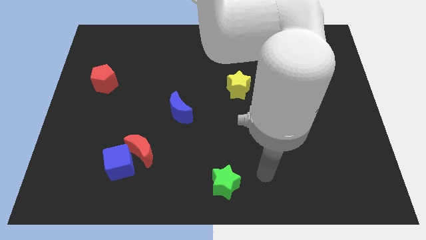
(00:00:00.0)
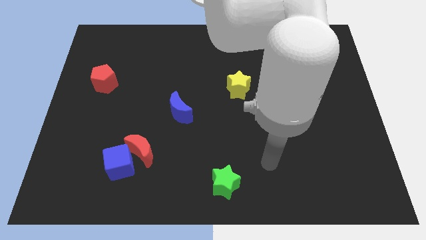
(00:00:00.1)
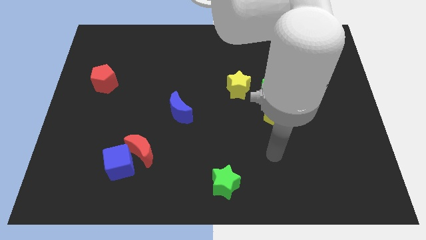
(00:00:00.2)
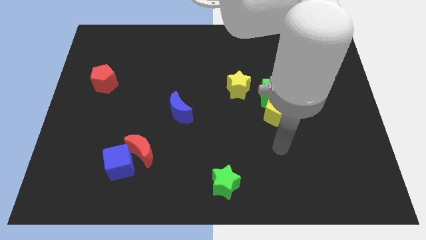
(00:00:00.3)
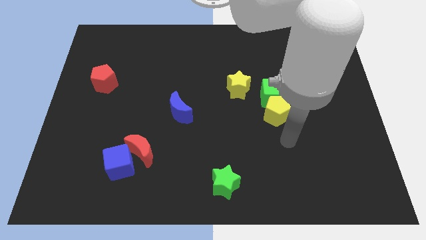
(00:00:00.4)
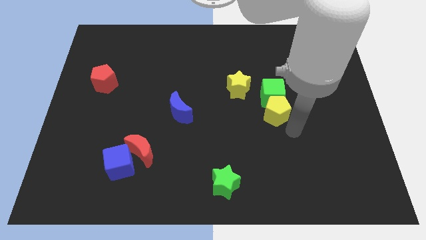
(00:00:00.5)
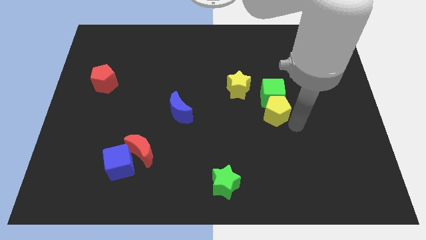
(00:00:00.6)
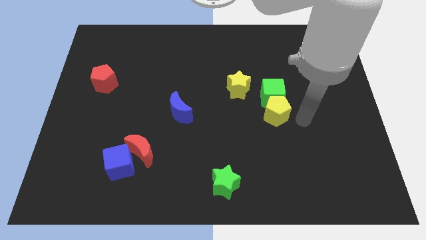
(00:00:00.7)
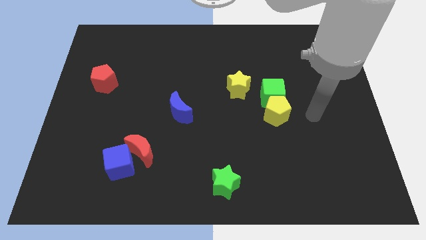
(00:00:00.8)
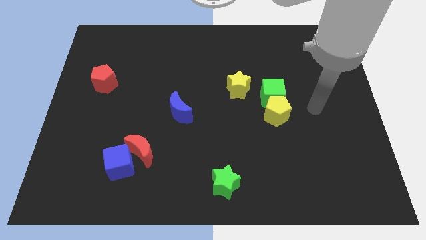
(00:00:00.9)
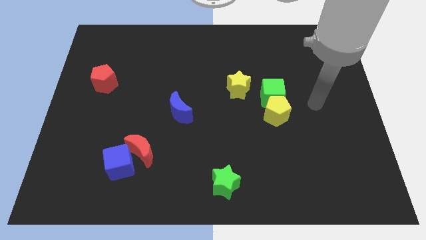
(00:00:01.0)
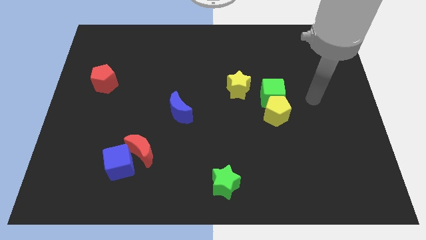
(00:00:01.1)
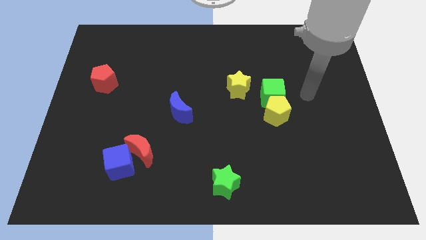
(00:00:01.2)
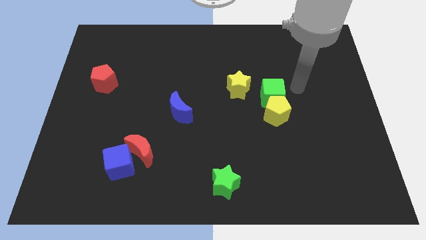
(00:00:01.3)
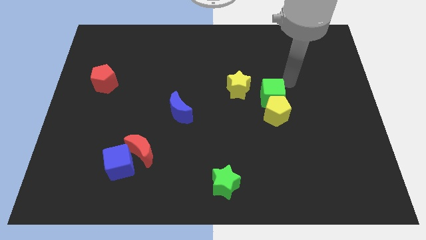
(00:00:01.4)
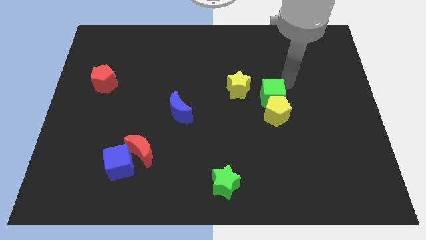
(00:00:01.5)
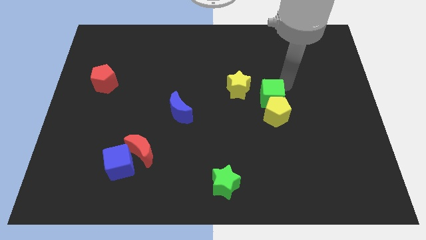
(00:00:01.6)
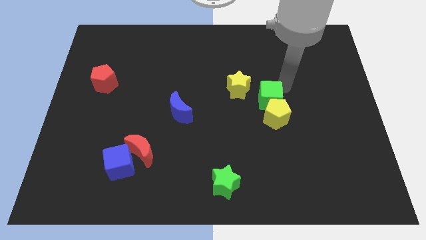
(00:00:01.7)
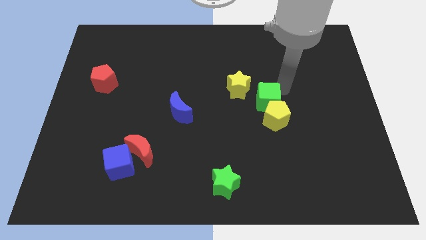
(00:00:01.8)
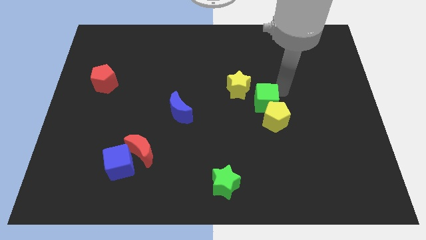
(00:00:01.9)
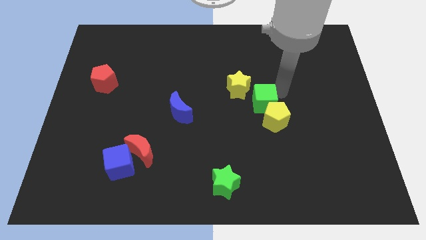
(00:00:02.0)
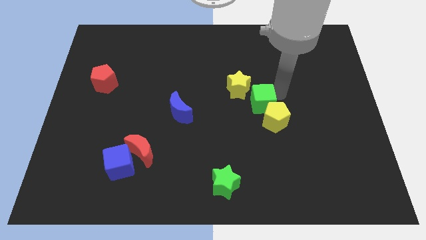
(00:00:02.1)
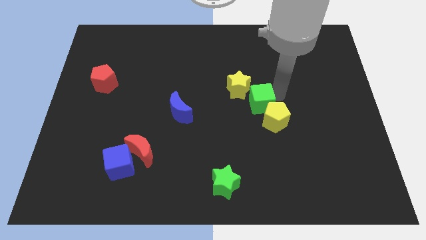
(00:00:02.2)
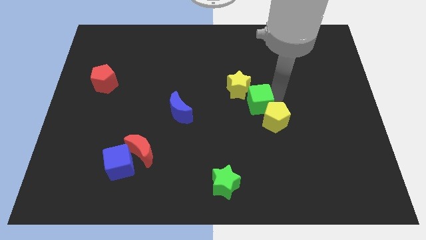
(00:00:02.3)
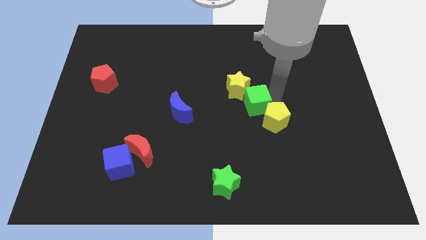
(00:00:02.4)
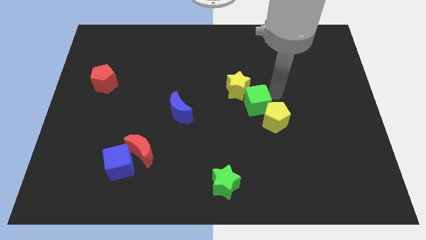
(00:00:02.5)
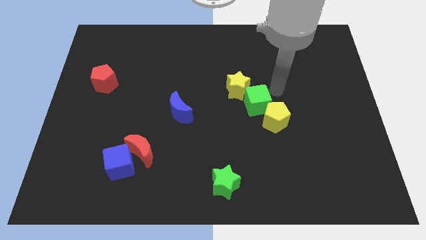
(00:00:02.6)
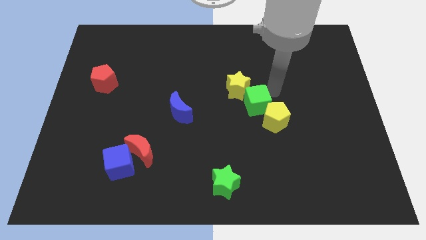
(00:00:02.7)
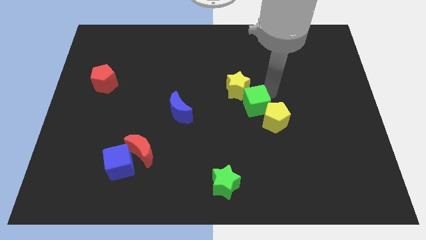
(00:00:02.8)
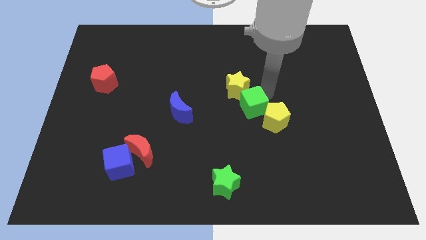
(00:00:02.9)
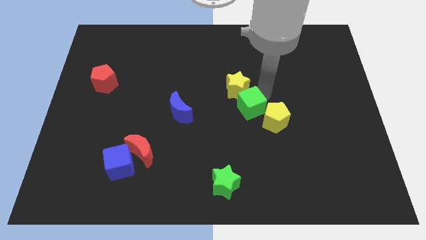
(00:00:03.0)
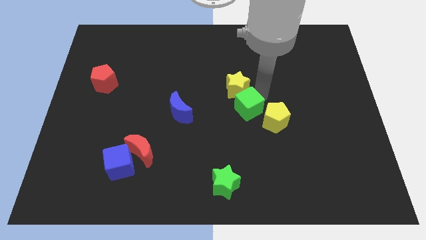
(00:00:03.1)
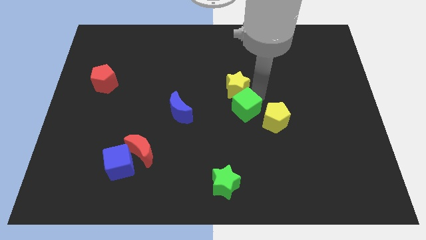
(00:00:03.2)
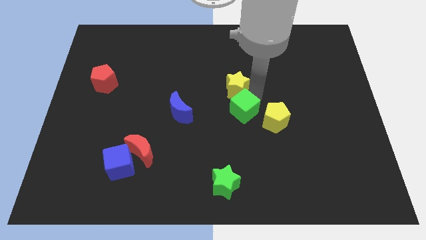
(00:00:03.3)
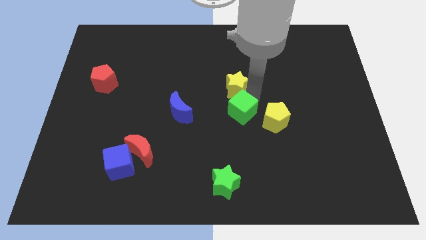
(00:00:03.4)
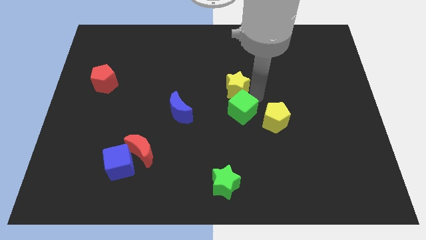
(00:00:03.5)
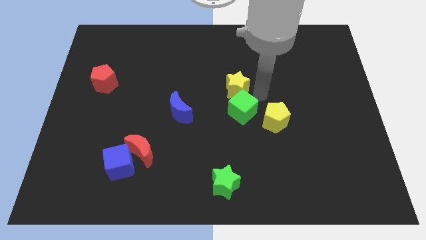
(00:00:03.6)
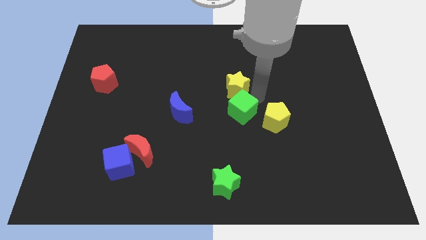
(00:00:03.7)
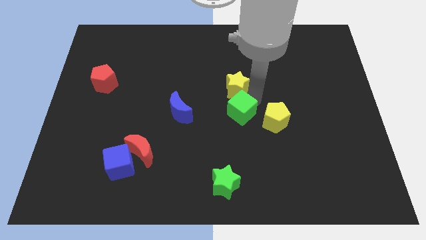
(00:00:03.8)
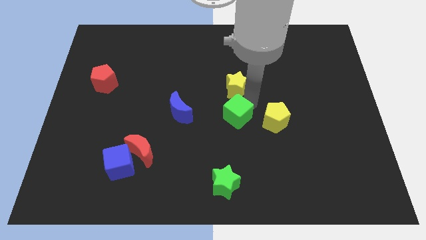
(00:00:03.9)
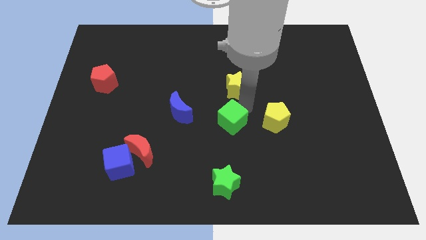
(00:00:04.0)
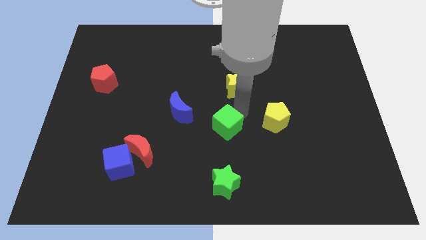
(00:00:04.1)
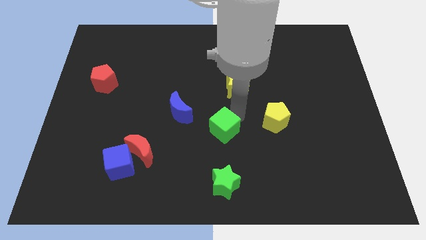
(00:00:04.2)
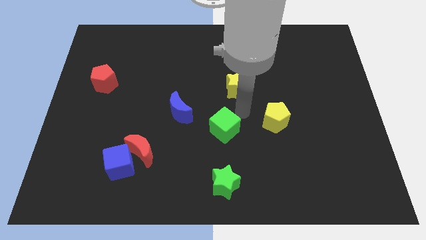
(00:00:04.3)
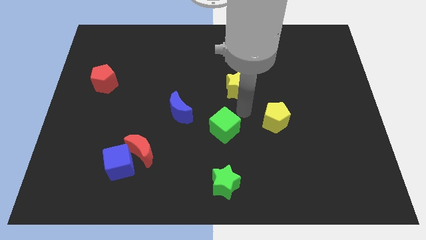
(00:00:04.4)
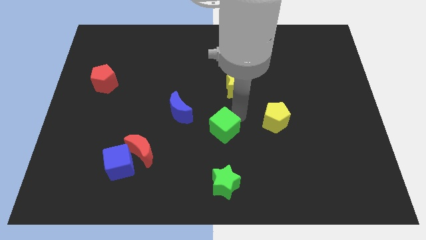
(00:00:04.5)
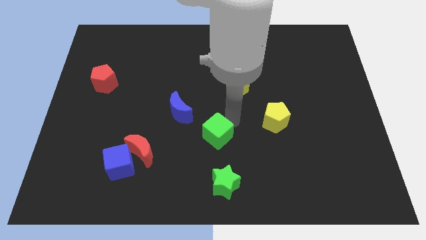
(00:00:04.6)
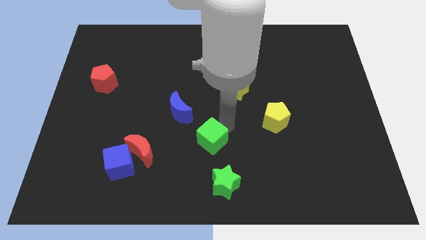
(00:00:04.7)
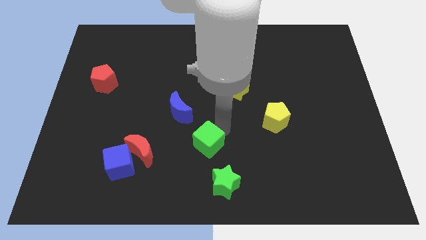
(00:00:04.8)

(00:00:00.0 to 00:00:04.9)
slide the green cube downwards and then to the left

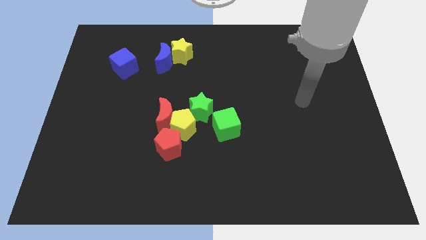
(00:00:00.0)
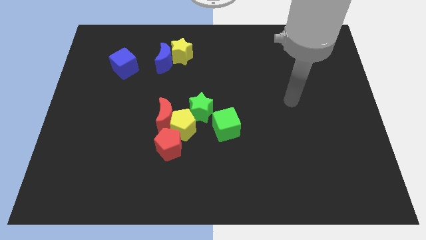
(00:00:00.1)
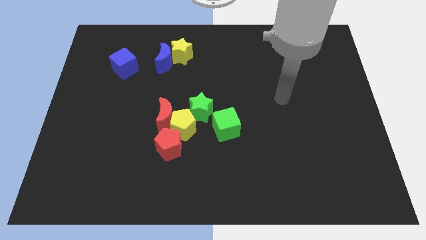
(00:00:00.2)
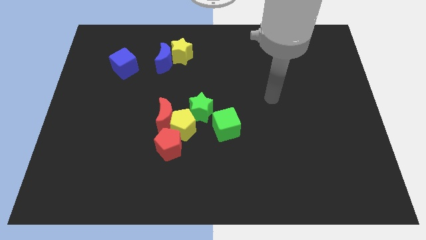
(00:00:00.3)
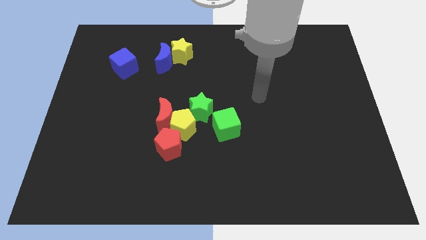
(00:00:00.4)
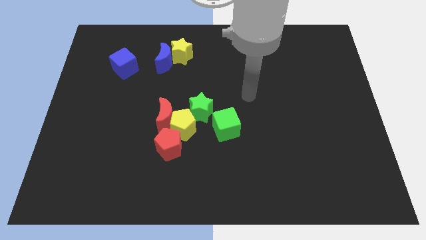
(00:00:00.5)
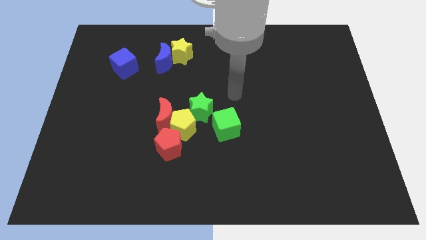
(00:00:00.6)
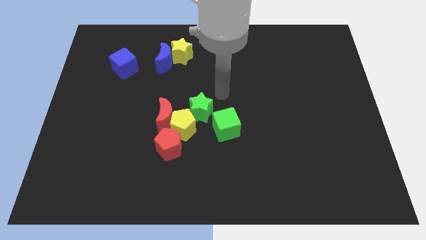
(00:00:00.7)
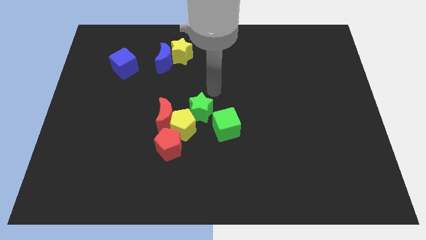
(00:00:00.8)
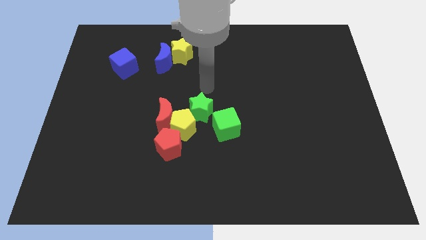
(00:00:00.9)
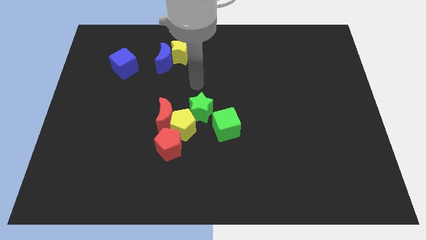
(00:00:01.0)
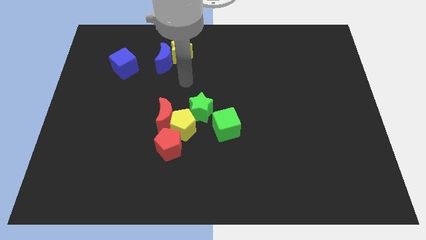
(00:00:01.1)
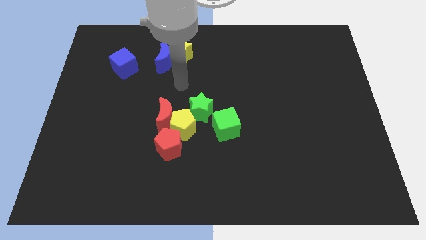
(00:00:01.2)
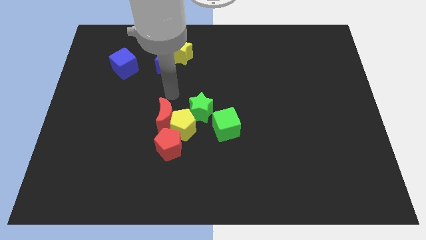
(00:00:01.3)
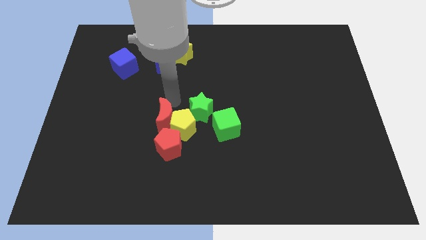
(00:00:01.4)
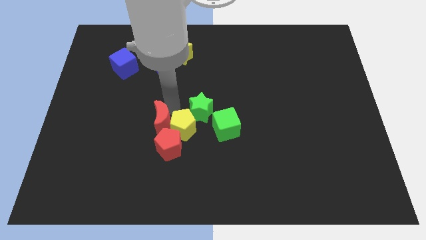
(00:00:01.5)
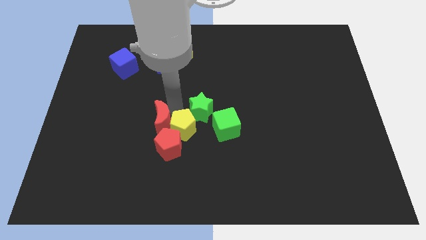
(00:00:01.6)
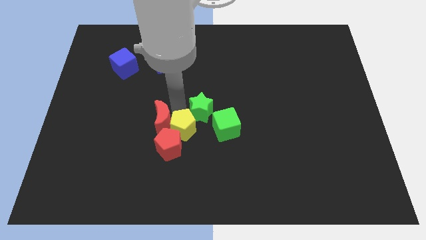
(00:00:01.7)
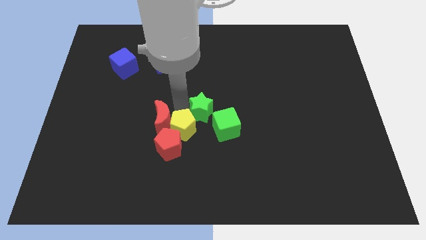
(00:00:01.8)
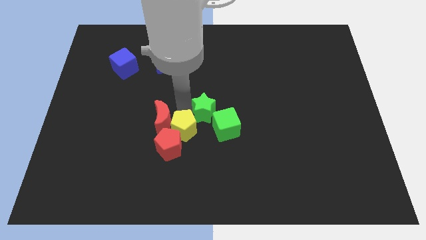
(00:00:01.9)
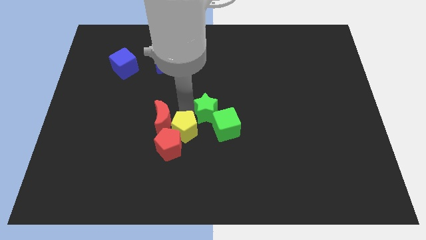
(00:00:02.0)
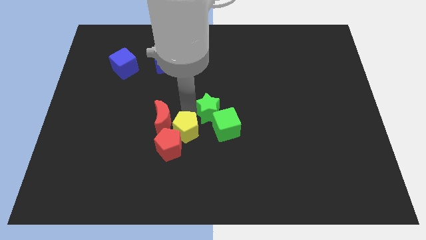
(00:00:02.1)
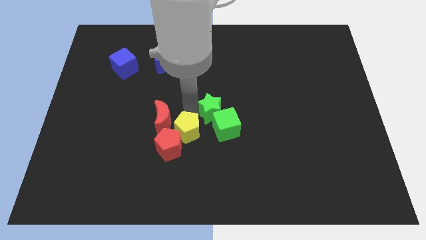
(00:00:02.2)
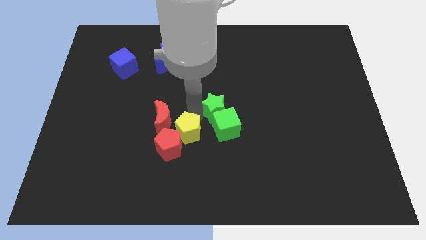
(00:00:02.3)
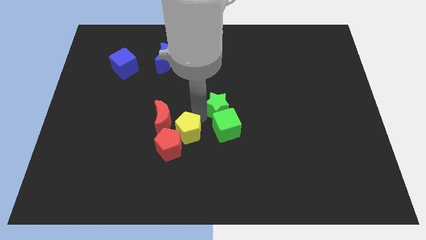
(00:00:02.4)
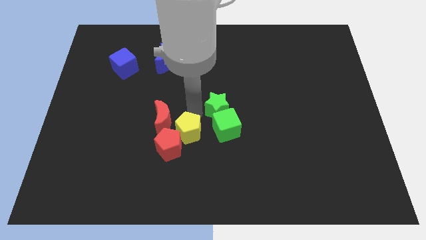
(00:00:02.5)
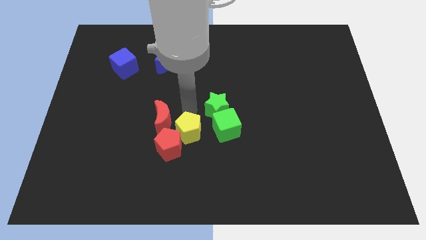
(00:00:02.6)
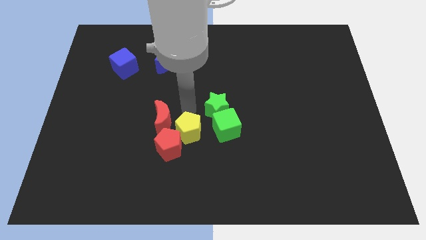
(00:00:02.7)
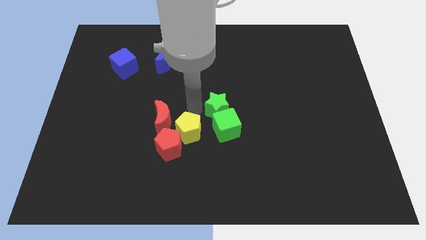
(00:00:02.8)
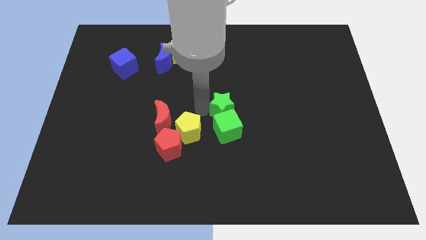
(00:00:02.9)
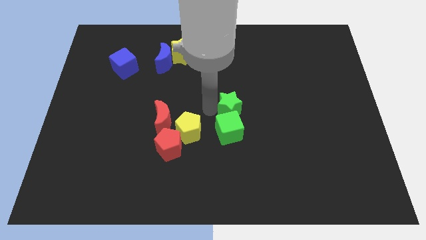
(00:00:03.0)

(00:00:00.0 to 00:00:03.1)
slightly slide the green star right
